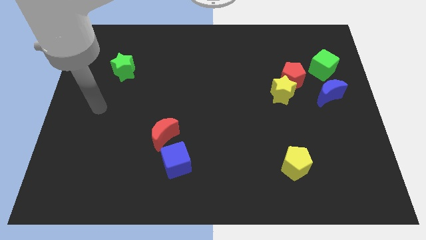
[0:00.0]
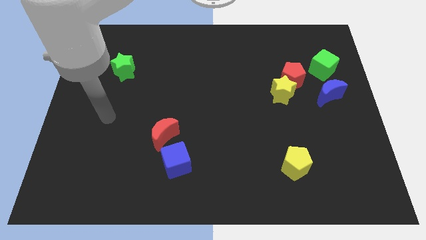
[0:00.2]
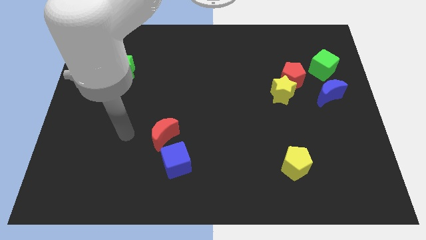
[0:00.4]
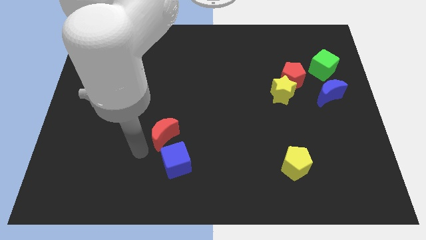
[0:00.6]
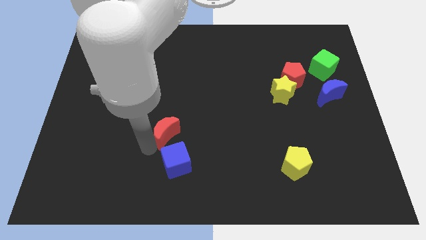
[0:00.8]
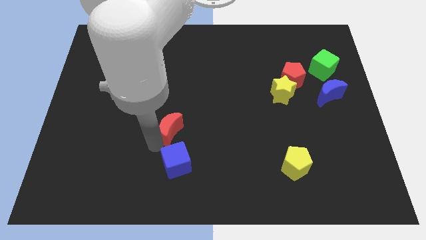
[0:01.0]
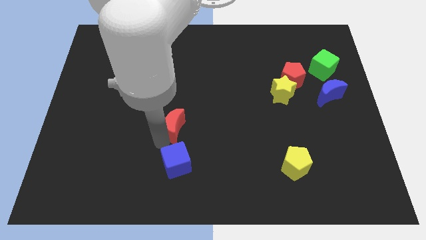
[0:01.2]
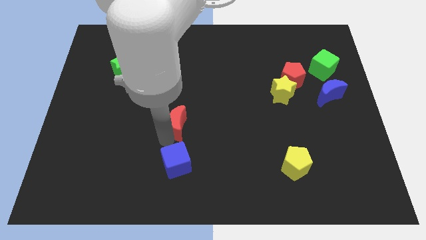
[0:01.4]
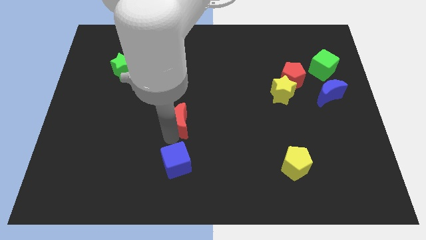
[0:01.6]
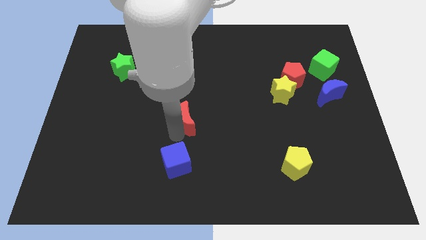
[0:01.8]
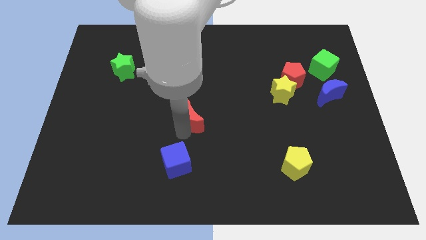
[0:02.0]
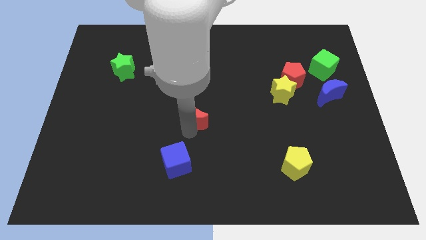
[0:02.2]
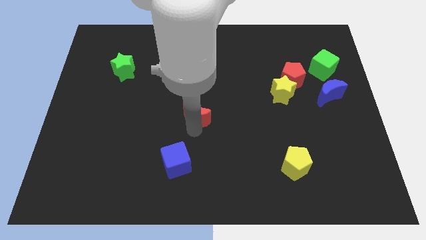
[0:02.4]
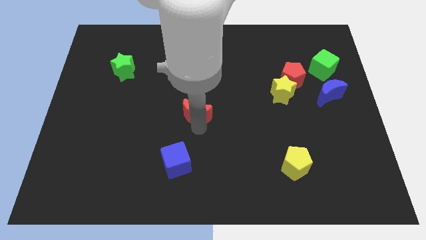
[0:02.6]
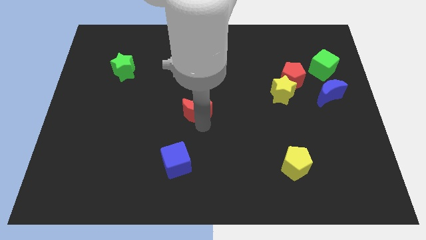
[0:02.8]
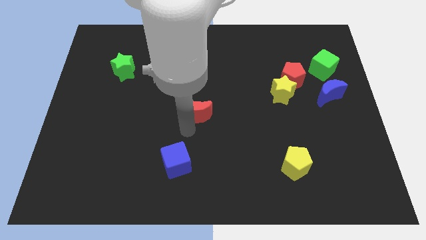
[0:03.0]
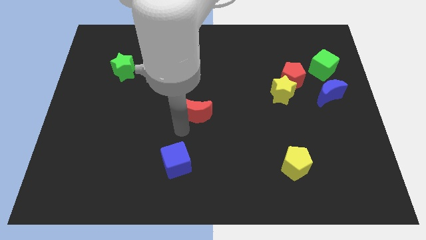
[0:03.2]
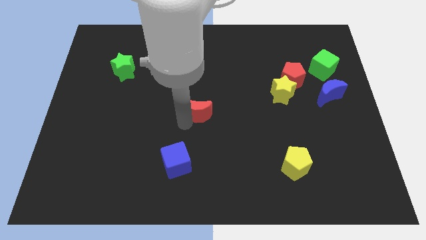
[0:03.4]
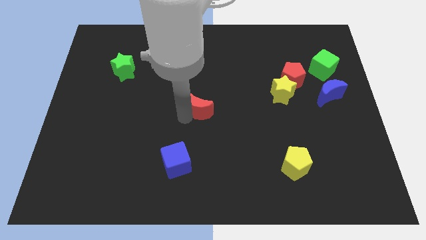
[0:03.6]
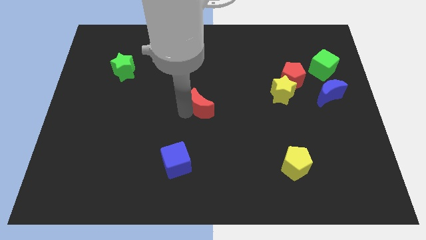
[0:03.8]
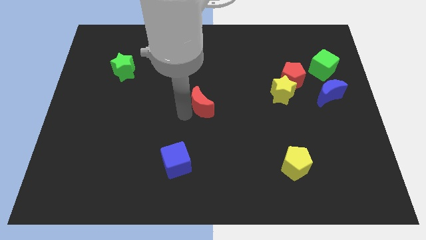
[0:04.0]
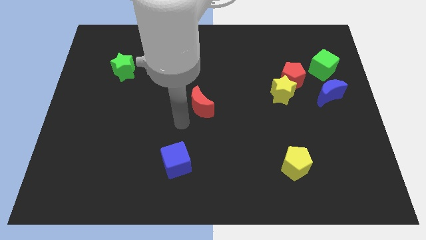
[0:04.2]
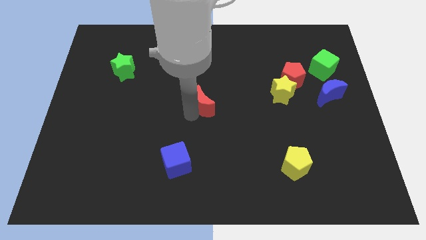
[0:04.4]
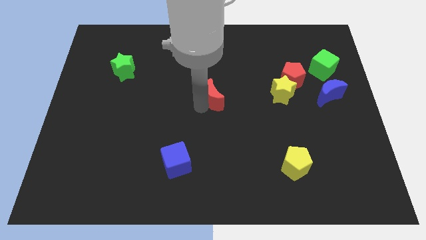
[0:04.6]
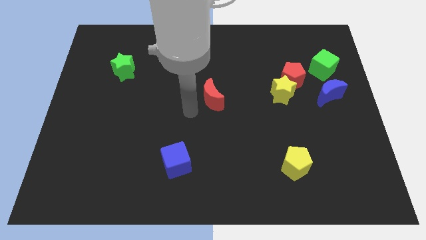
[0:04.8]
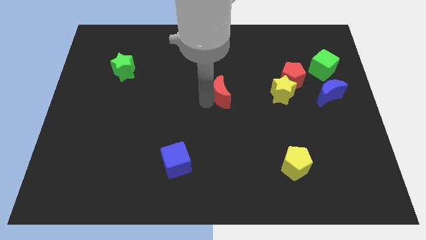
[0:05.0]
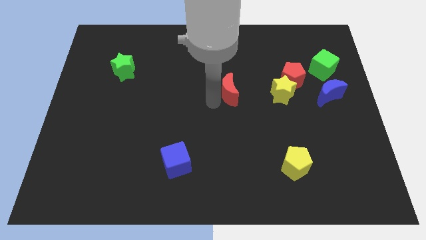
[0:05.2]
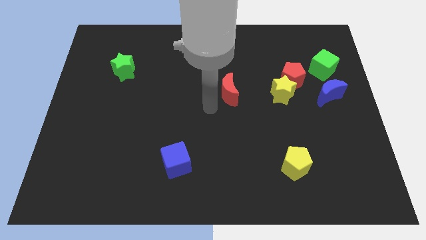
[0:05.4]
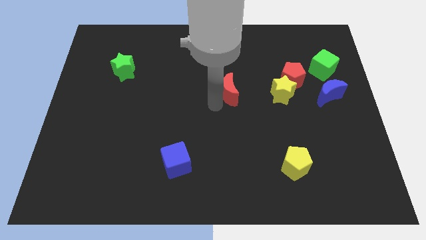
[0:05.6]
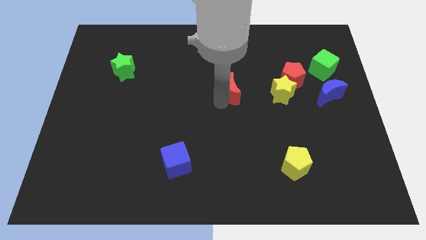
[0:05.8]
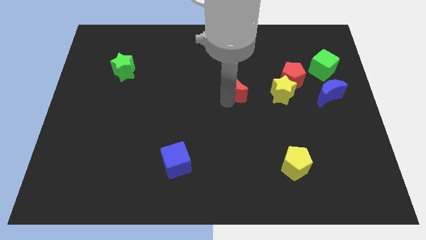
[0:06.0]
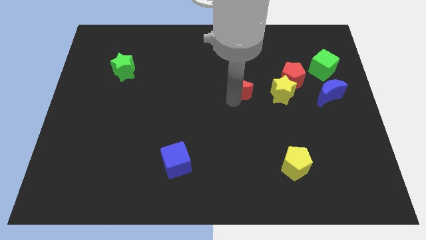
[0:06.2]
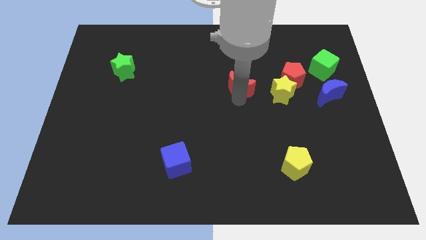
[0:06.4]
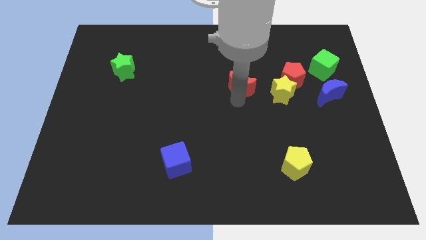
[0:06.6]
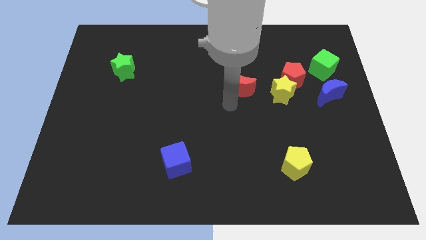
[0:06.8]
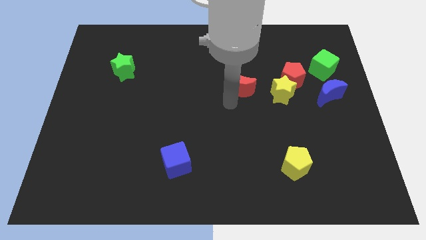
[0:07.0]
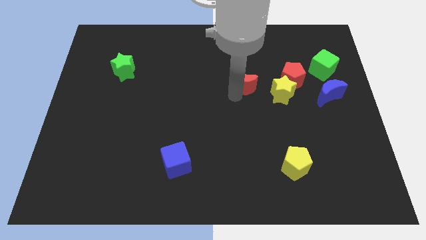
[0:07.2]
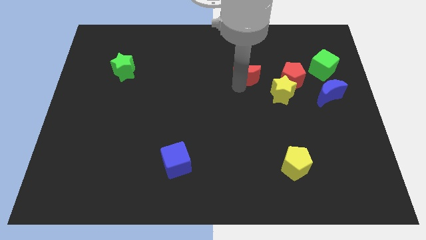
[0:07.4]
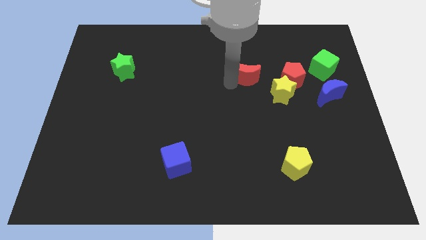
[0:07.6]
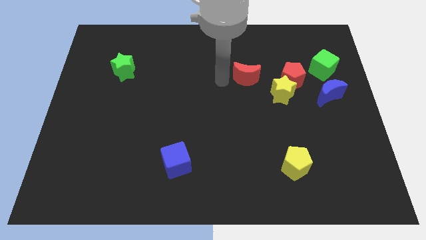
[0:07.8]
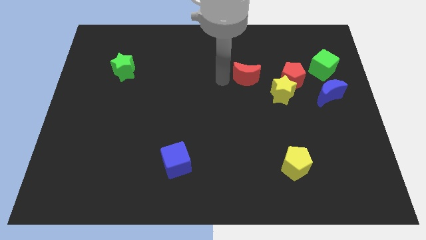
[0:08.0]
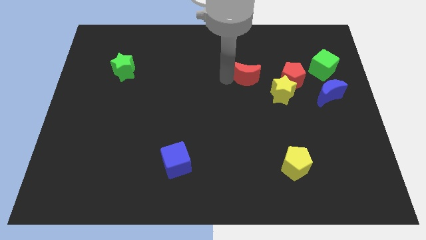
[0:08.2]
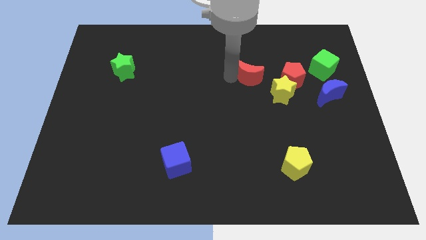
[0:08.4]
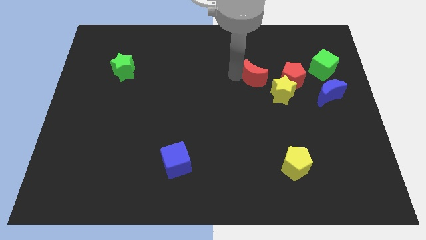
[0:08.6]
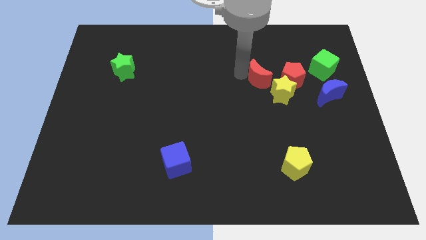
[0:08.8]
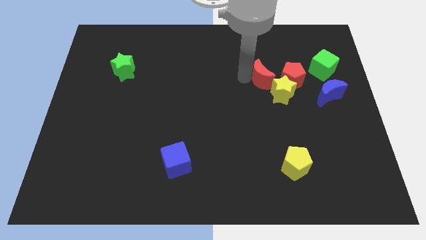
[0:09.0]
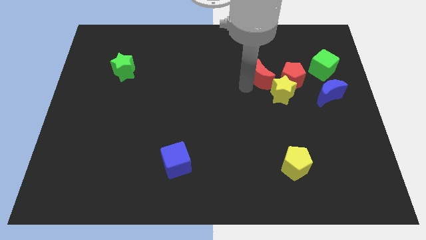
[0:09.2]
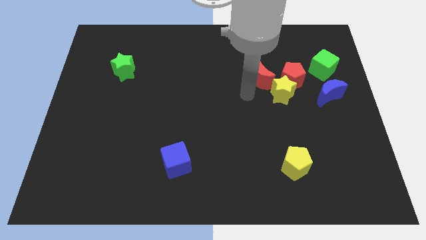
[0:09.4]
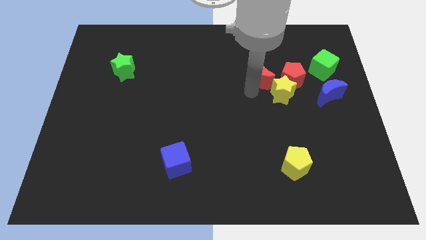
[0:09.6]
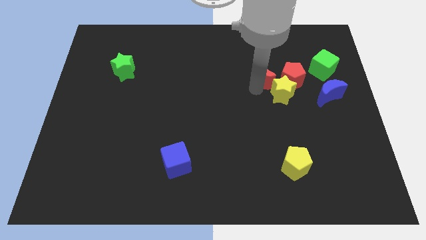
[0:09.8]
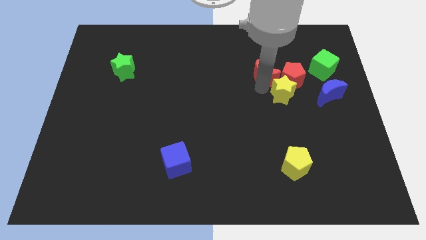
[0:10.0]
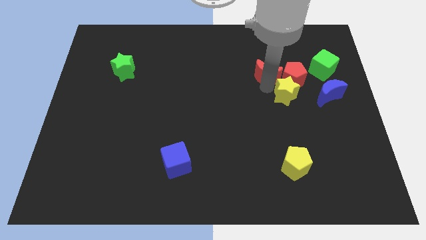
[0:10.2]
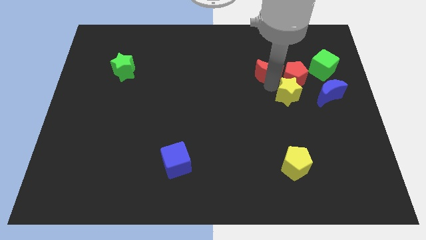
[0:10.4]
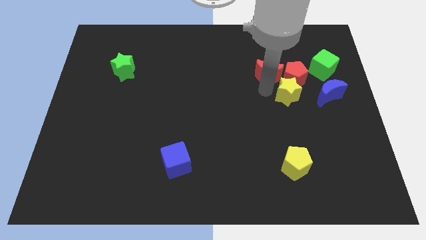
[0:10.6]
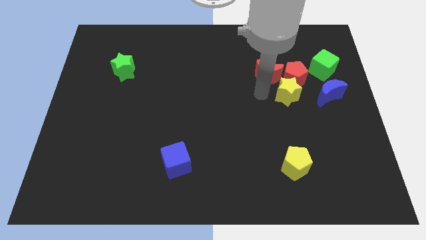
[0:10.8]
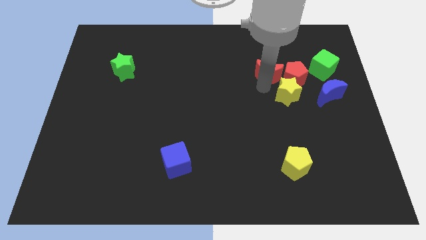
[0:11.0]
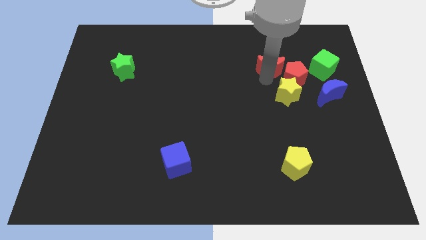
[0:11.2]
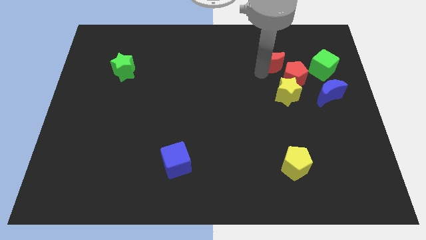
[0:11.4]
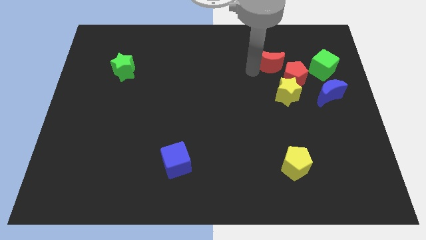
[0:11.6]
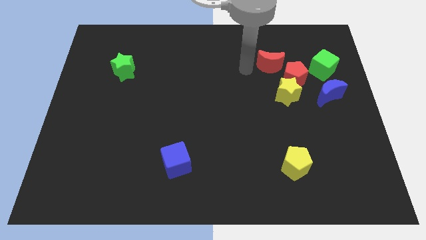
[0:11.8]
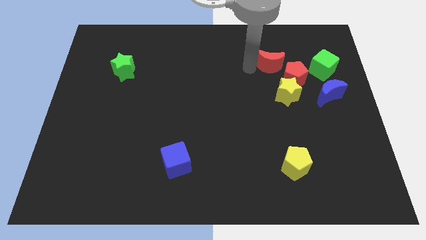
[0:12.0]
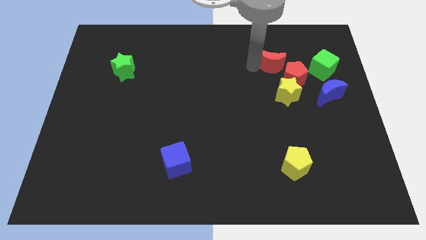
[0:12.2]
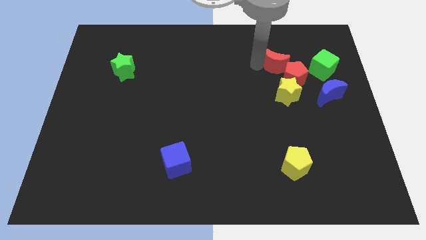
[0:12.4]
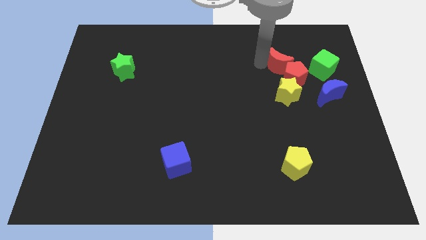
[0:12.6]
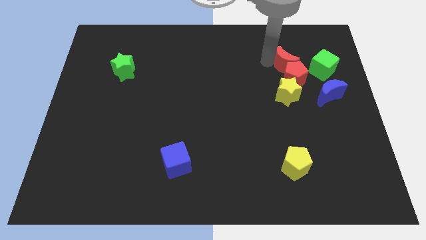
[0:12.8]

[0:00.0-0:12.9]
put the red moon to the top right of the red pentagon

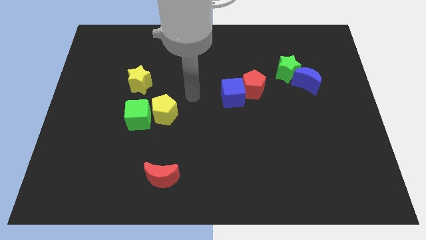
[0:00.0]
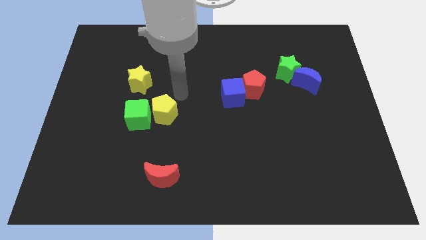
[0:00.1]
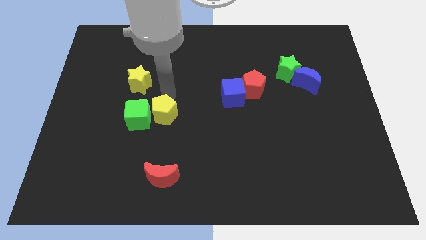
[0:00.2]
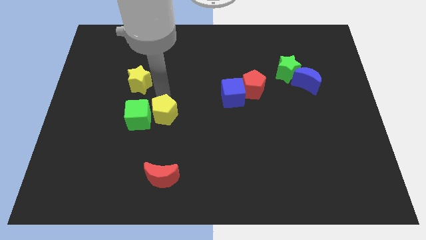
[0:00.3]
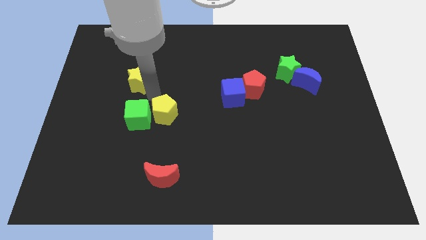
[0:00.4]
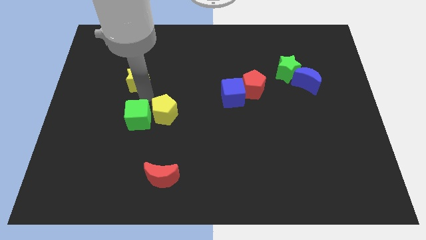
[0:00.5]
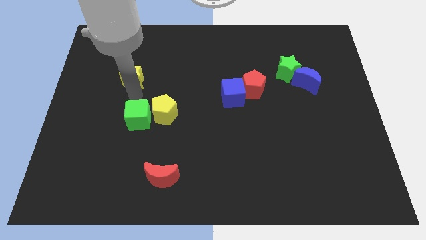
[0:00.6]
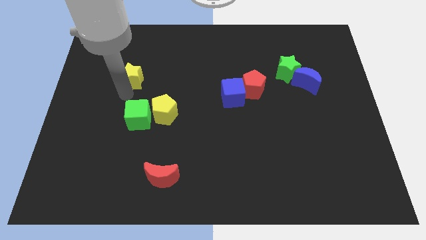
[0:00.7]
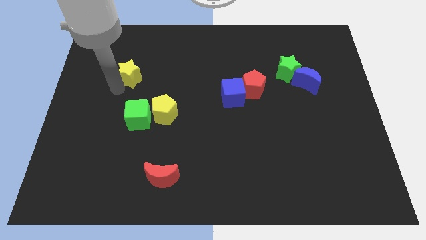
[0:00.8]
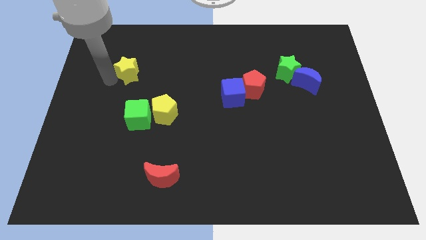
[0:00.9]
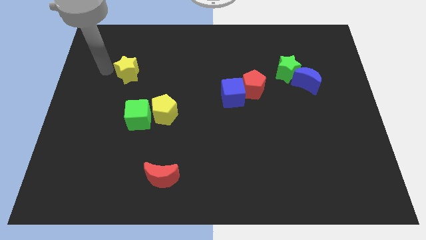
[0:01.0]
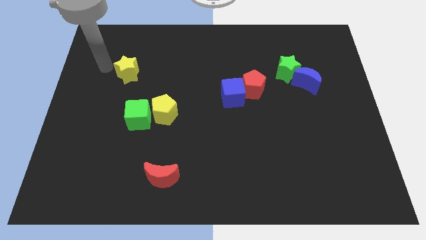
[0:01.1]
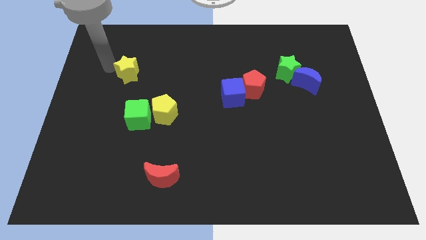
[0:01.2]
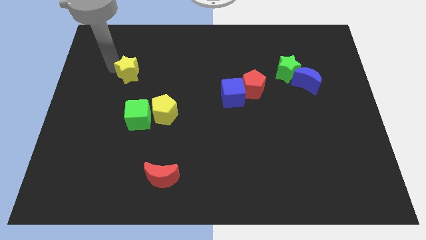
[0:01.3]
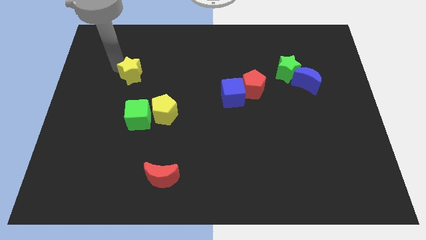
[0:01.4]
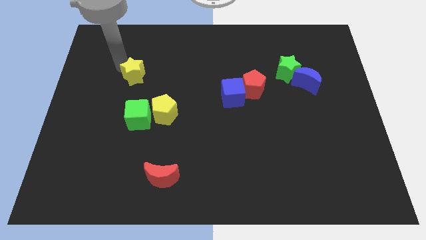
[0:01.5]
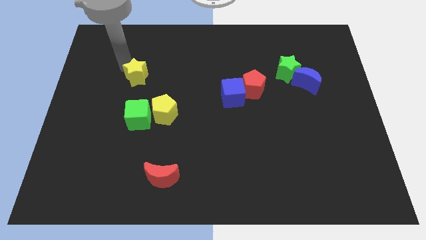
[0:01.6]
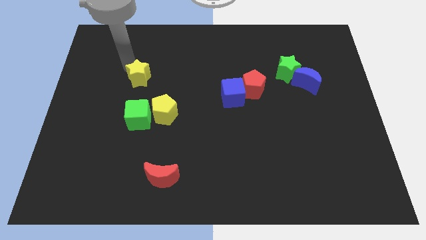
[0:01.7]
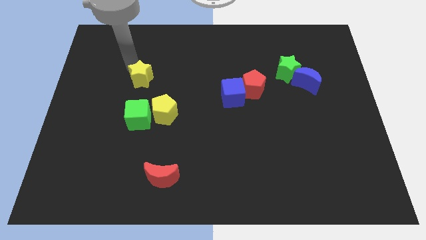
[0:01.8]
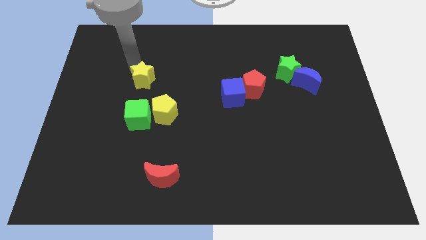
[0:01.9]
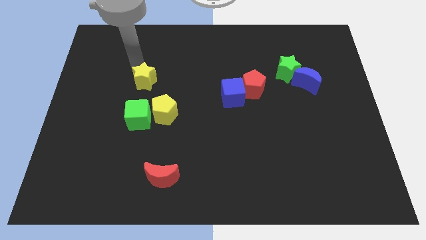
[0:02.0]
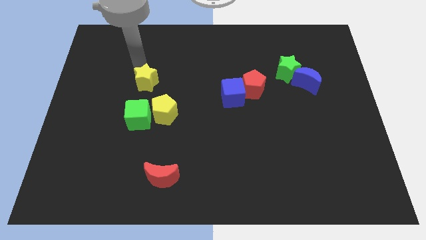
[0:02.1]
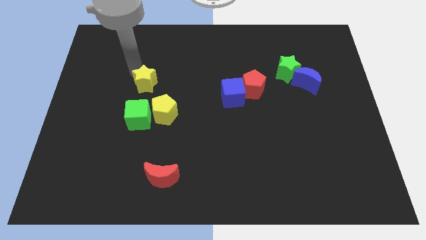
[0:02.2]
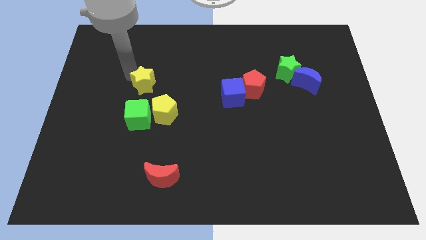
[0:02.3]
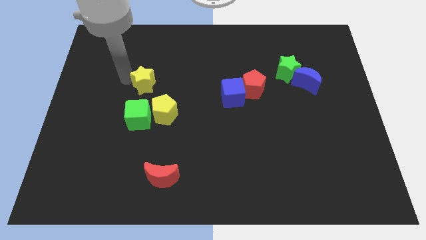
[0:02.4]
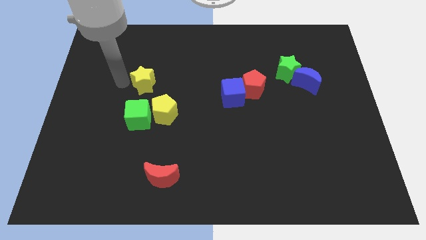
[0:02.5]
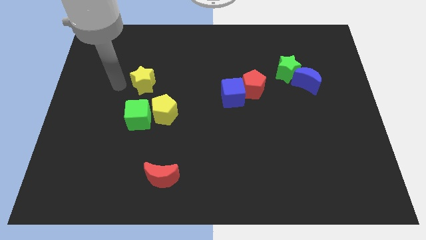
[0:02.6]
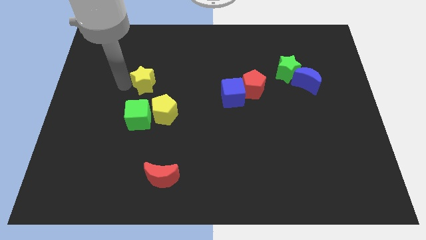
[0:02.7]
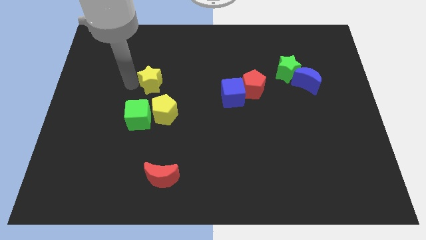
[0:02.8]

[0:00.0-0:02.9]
push the yellow star to the top side of the yellow pentagon
